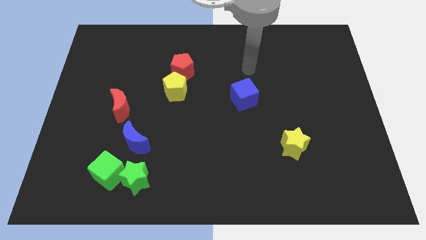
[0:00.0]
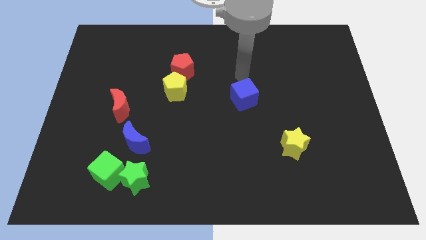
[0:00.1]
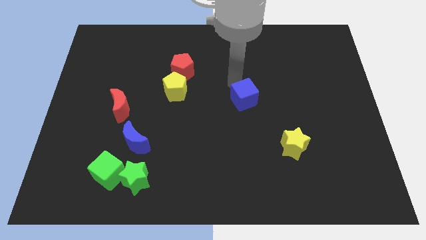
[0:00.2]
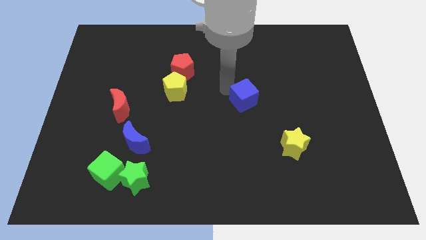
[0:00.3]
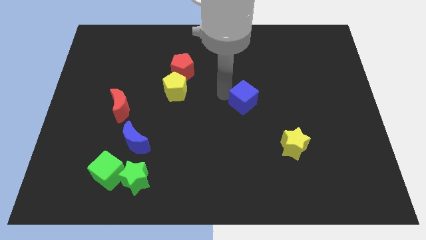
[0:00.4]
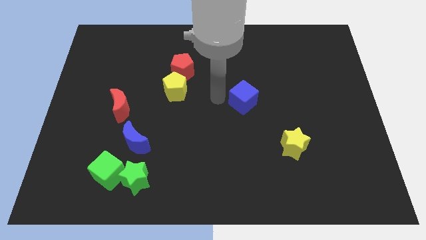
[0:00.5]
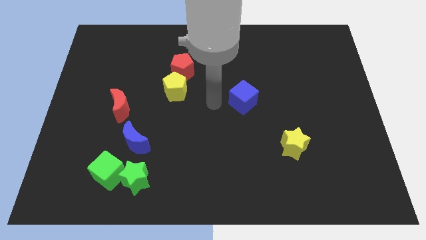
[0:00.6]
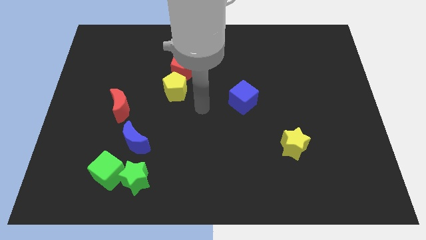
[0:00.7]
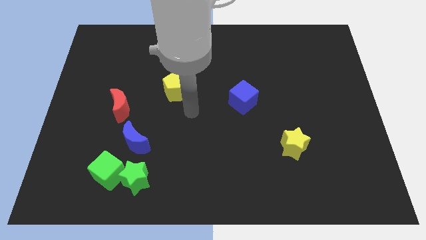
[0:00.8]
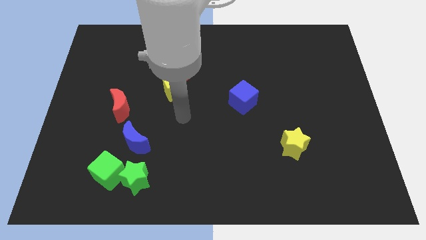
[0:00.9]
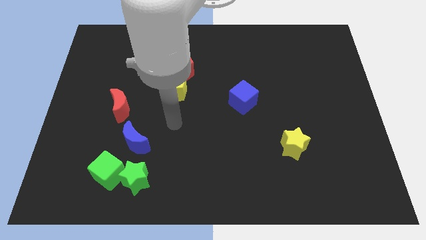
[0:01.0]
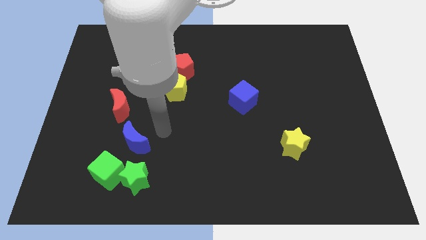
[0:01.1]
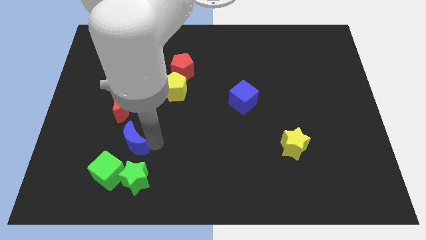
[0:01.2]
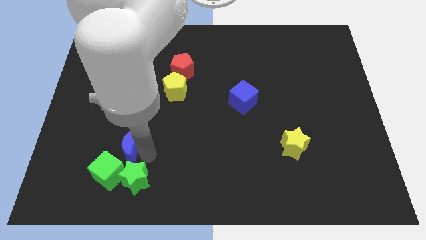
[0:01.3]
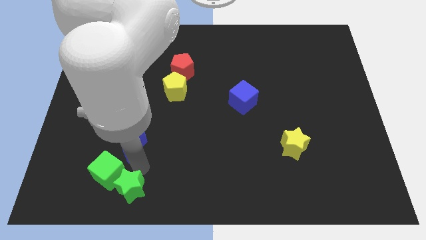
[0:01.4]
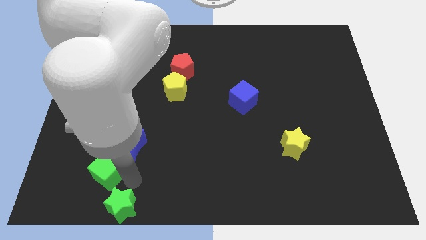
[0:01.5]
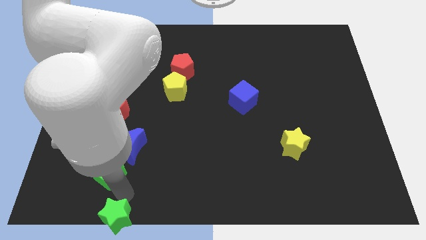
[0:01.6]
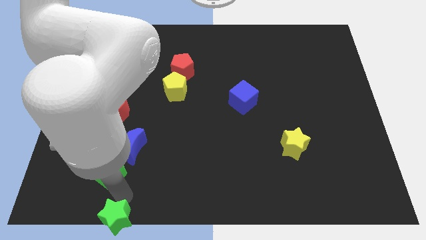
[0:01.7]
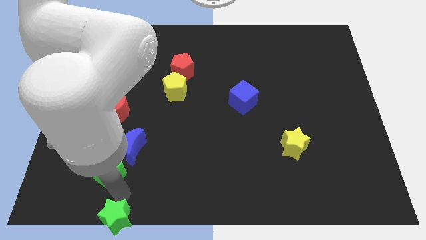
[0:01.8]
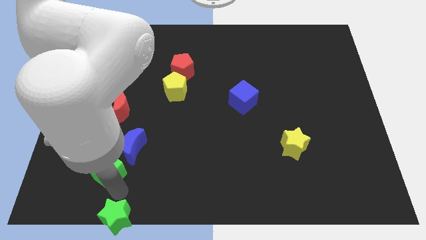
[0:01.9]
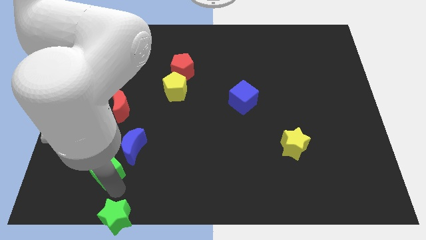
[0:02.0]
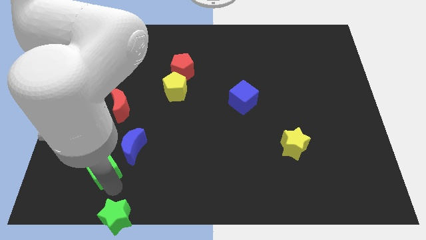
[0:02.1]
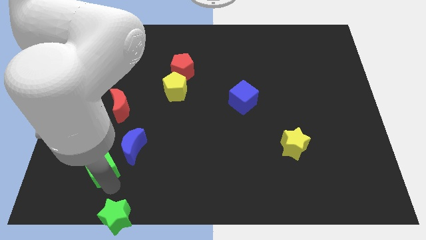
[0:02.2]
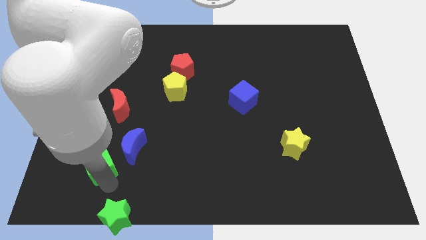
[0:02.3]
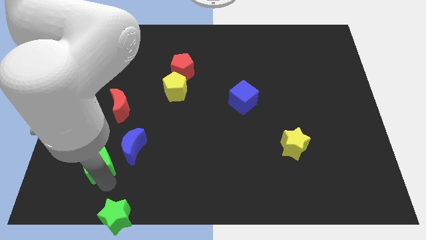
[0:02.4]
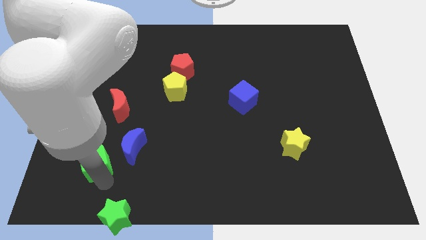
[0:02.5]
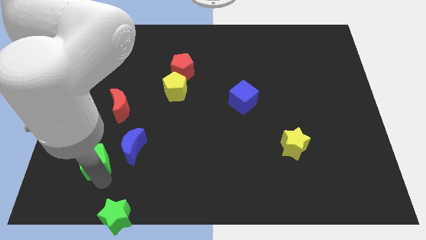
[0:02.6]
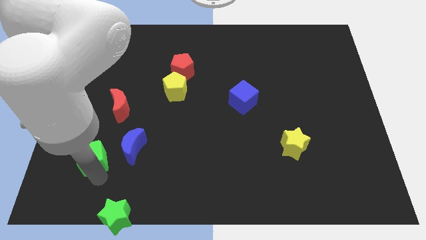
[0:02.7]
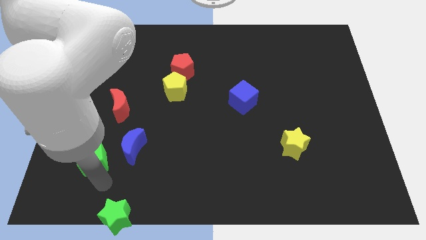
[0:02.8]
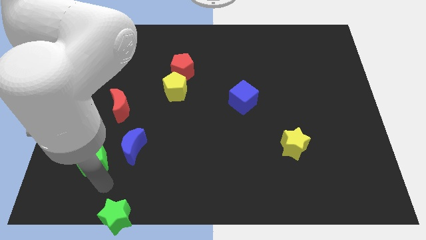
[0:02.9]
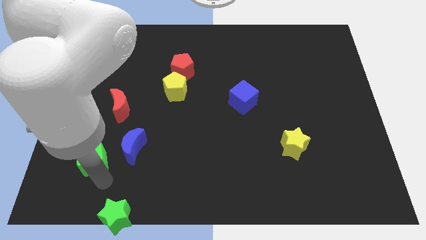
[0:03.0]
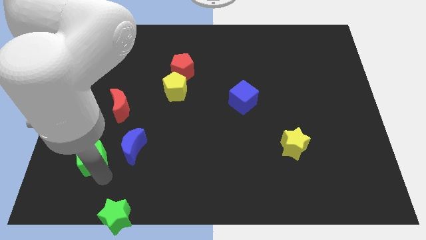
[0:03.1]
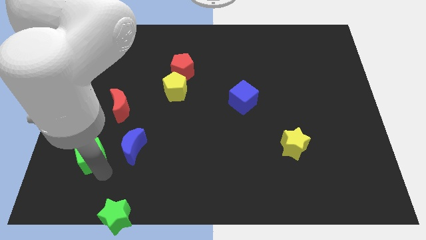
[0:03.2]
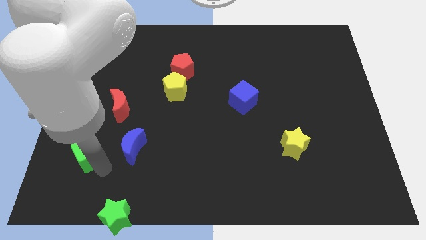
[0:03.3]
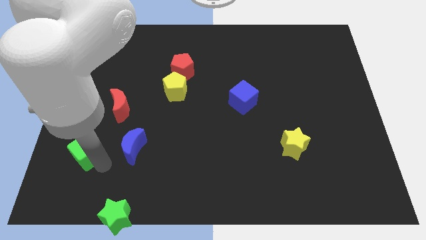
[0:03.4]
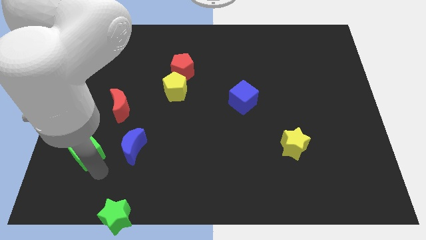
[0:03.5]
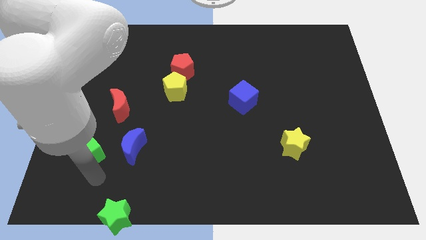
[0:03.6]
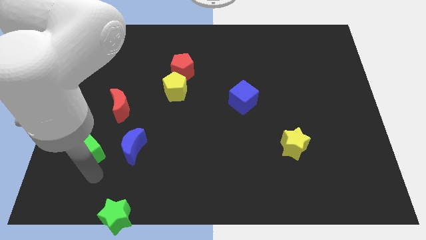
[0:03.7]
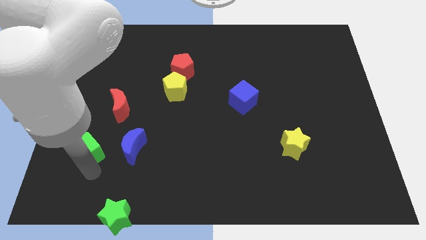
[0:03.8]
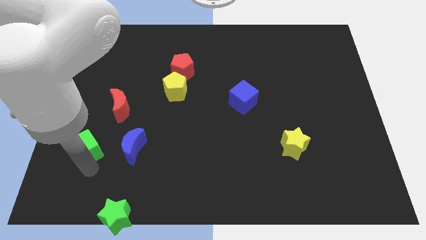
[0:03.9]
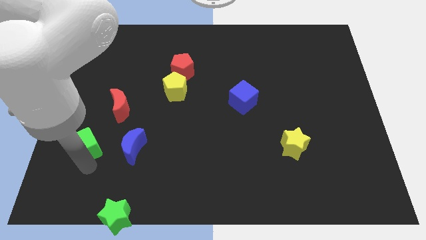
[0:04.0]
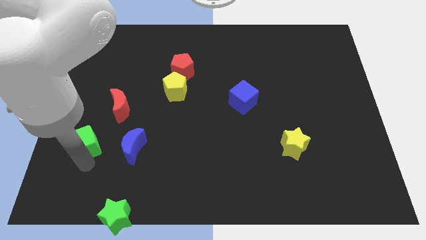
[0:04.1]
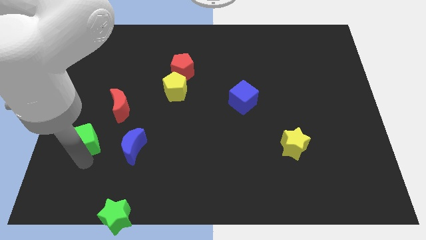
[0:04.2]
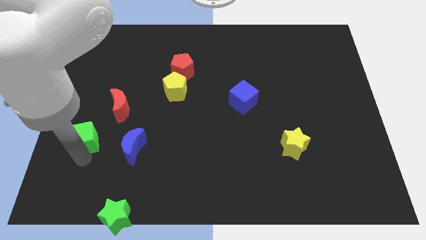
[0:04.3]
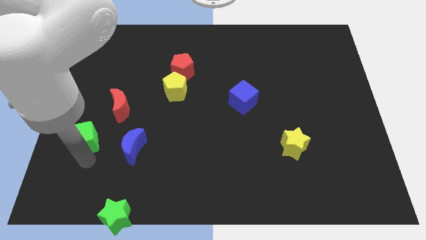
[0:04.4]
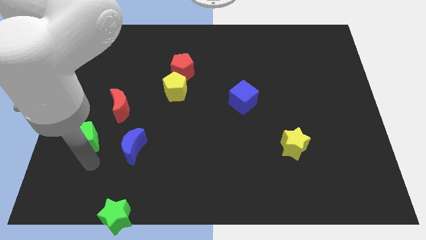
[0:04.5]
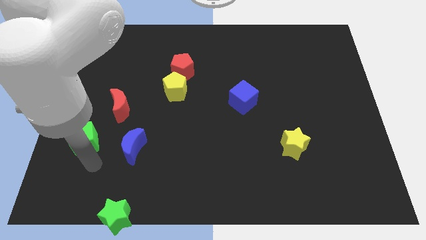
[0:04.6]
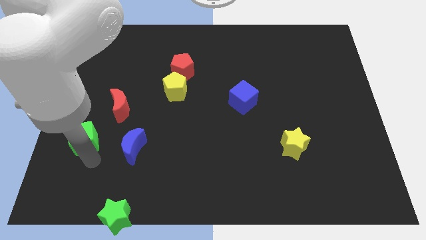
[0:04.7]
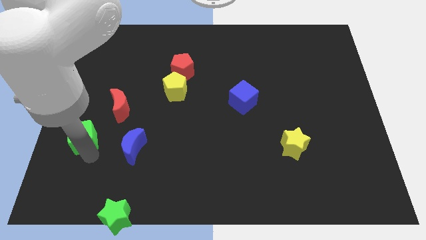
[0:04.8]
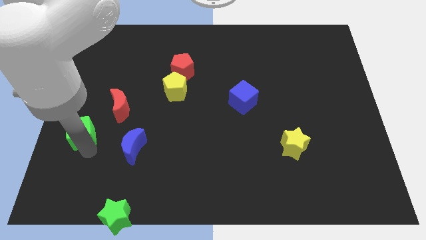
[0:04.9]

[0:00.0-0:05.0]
move the green cube to the left side

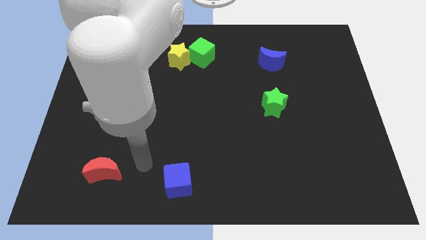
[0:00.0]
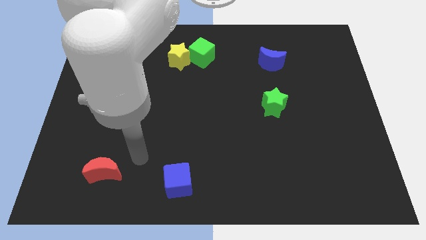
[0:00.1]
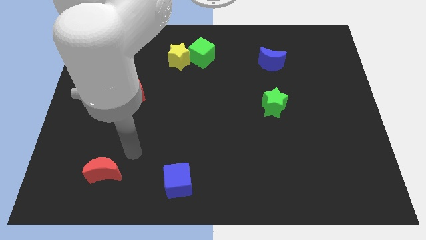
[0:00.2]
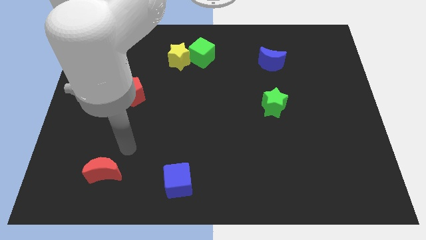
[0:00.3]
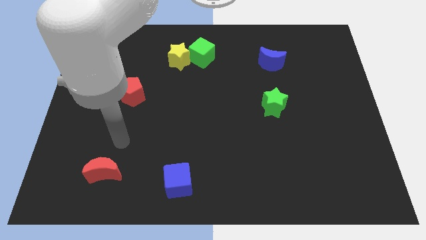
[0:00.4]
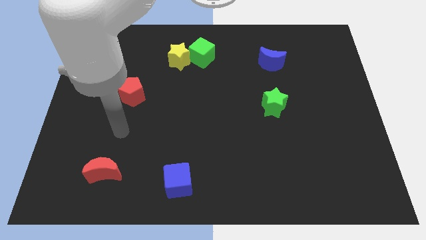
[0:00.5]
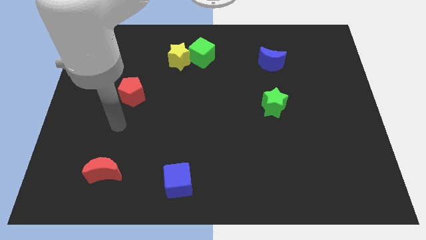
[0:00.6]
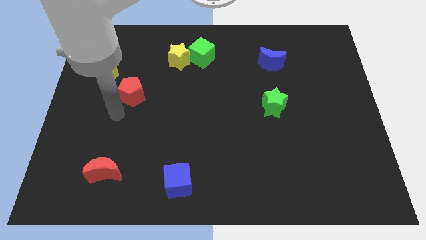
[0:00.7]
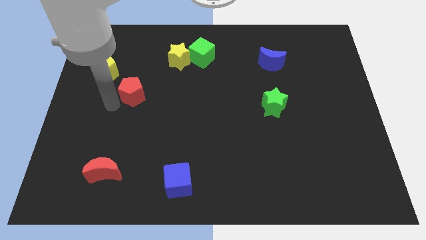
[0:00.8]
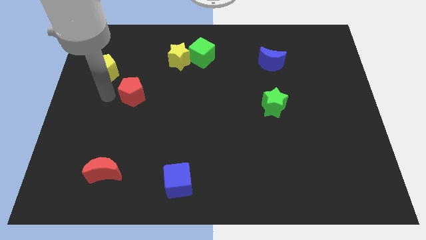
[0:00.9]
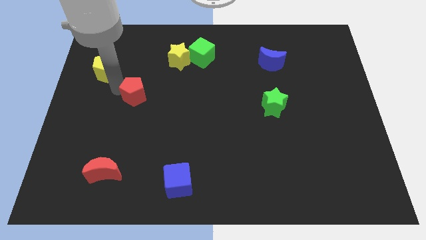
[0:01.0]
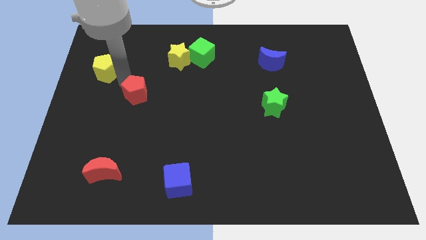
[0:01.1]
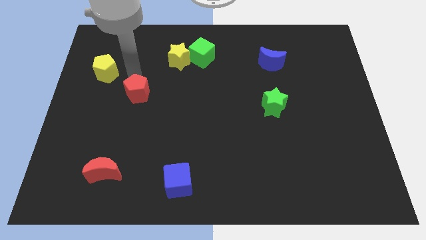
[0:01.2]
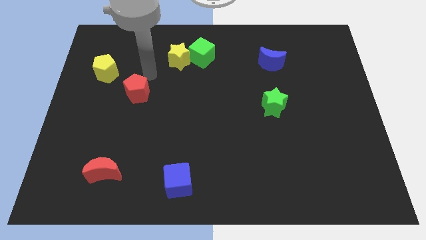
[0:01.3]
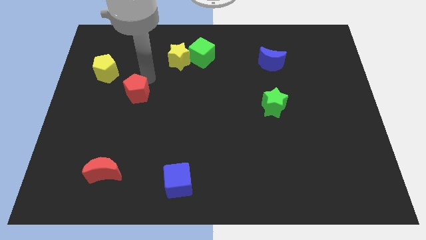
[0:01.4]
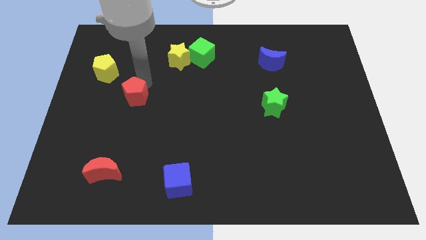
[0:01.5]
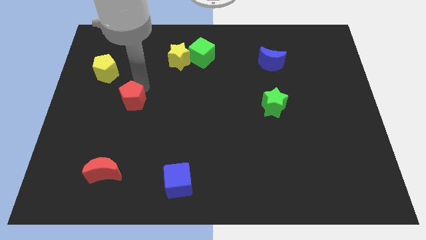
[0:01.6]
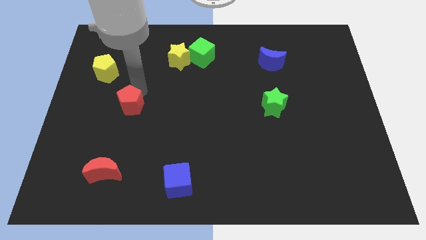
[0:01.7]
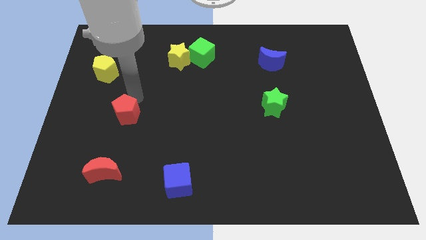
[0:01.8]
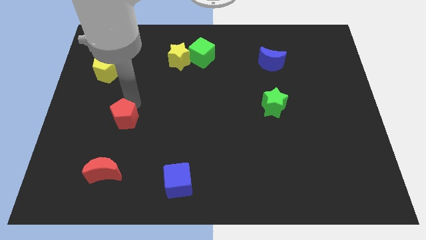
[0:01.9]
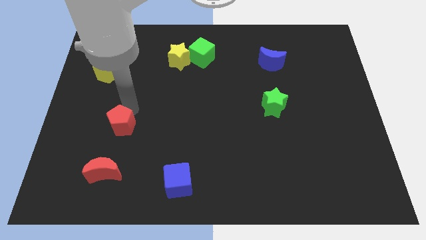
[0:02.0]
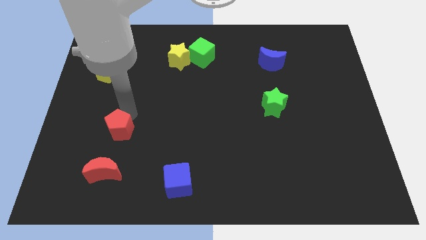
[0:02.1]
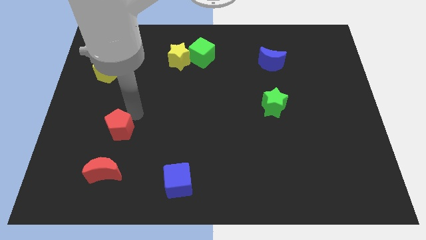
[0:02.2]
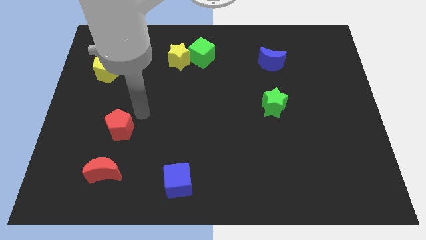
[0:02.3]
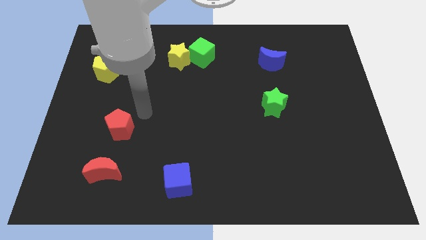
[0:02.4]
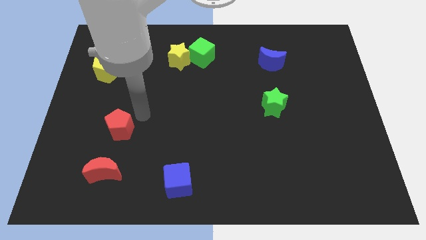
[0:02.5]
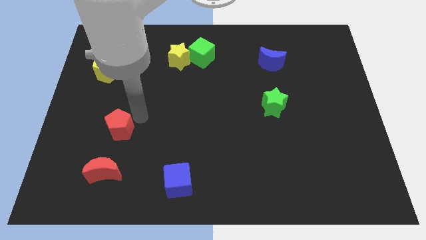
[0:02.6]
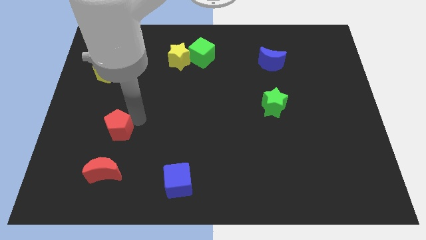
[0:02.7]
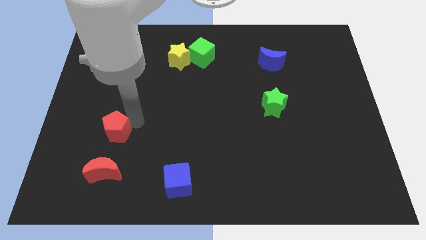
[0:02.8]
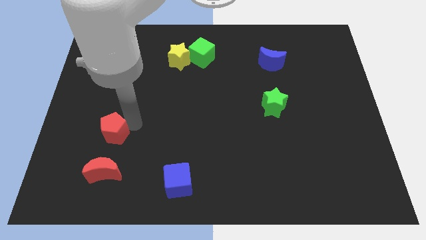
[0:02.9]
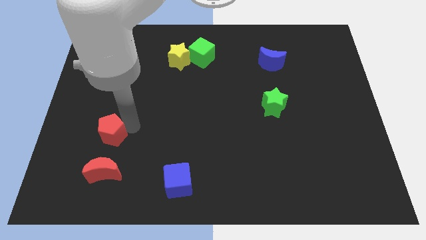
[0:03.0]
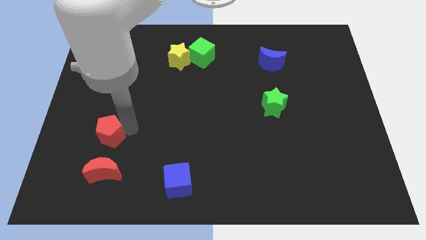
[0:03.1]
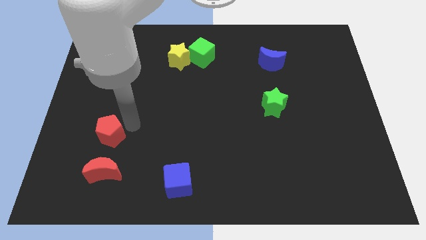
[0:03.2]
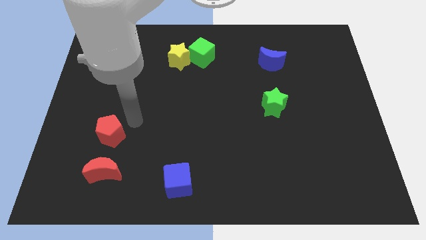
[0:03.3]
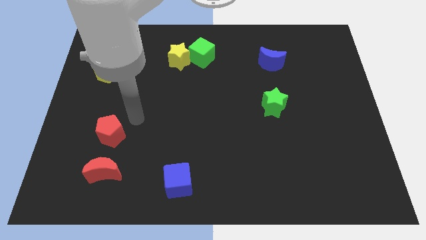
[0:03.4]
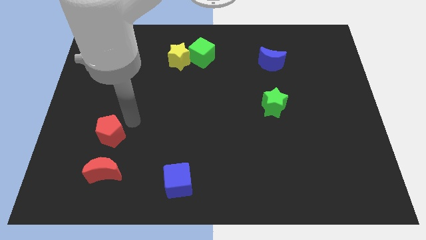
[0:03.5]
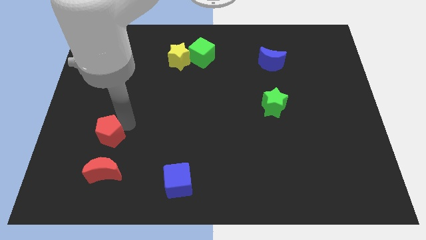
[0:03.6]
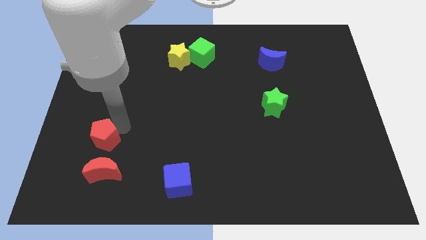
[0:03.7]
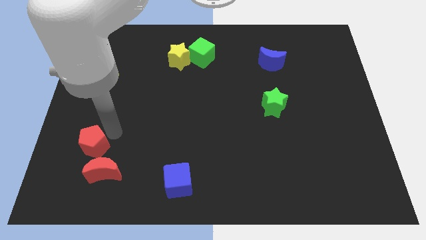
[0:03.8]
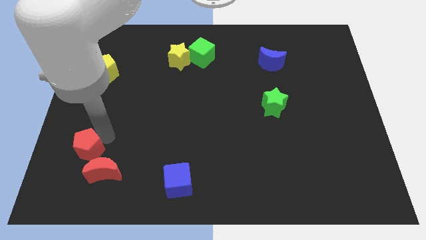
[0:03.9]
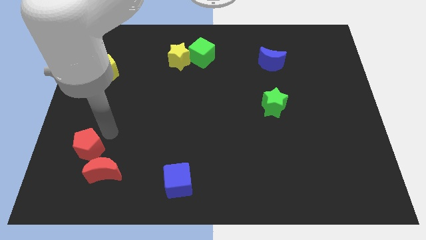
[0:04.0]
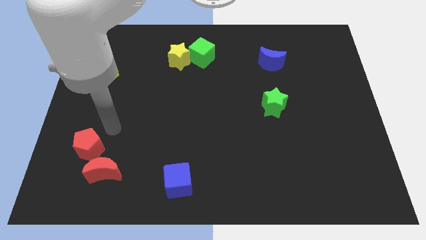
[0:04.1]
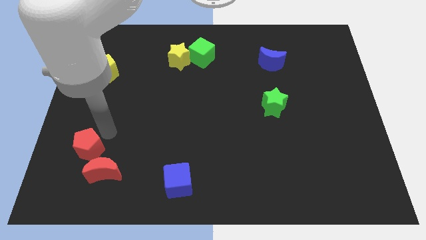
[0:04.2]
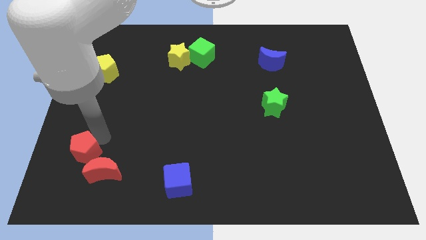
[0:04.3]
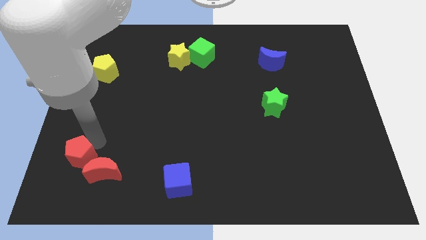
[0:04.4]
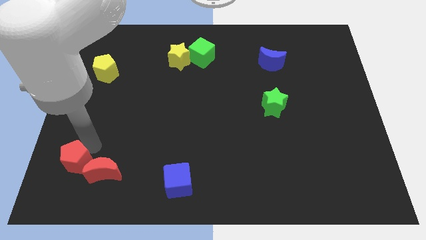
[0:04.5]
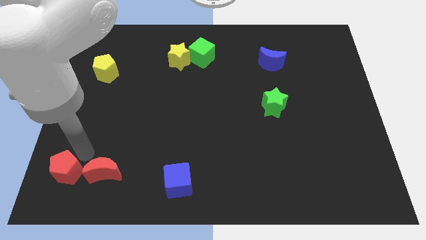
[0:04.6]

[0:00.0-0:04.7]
move the red pentagon to the bottom left
